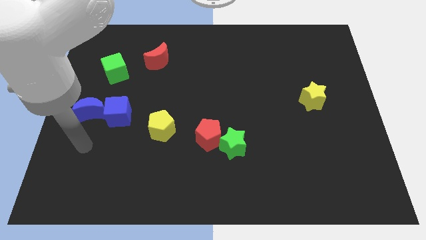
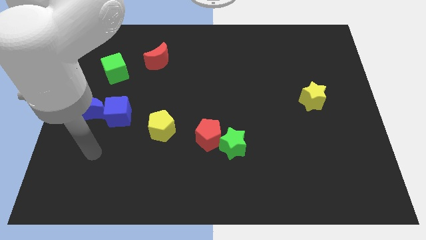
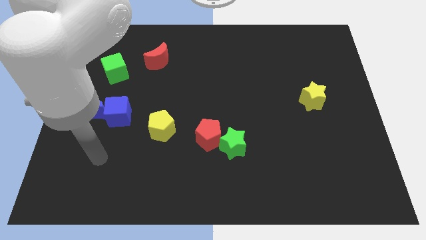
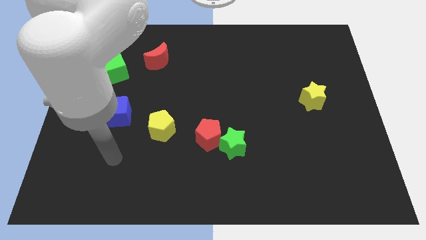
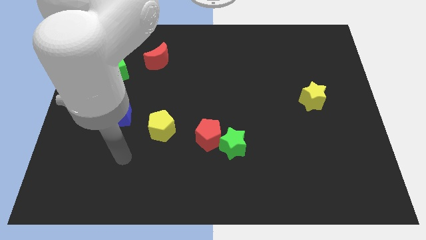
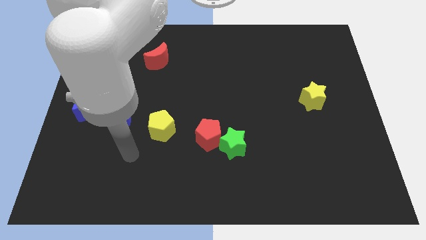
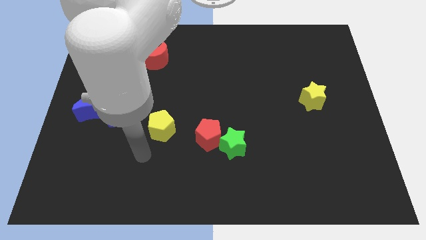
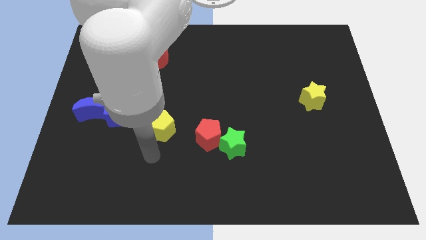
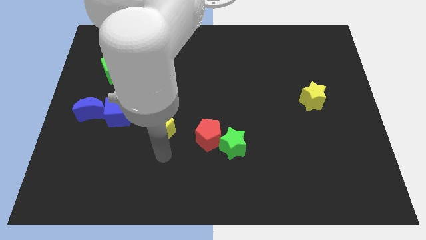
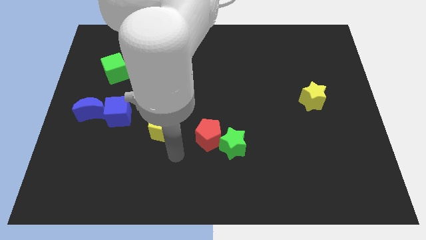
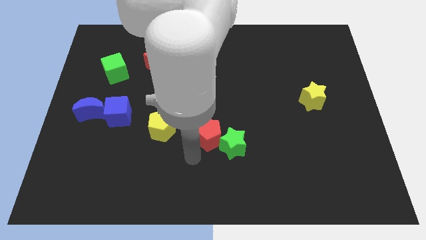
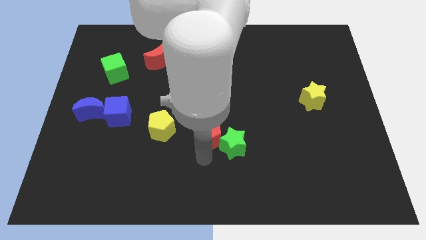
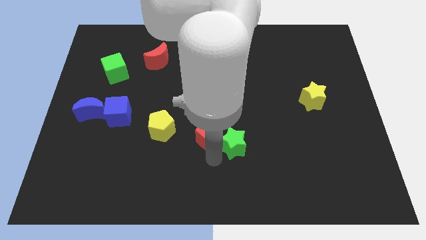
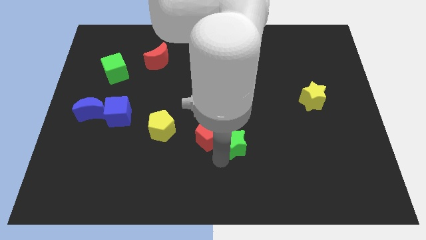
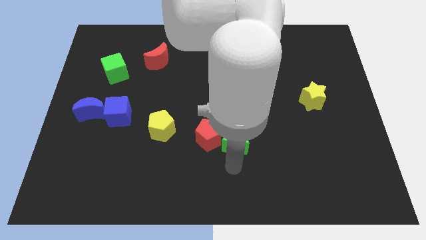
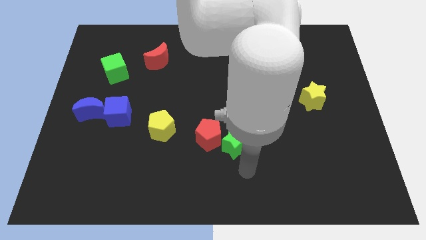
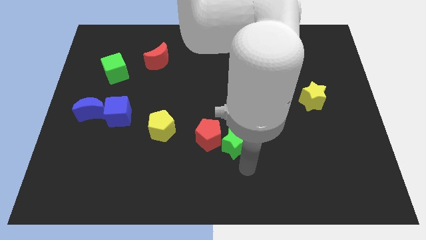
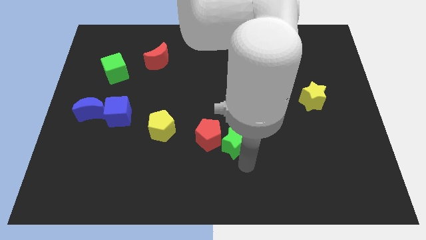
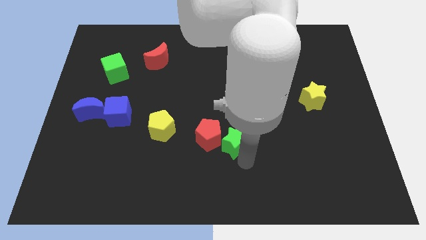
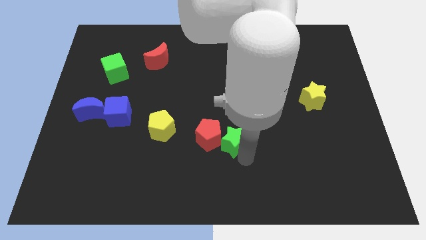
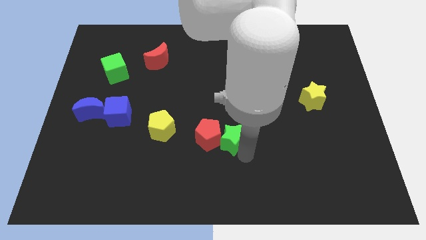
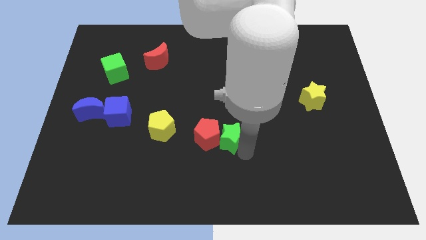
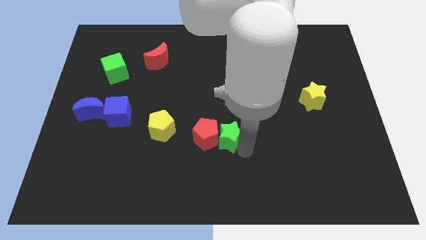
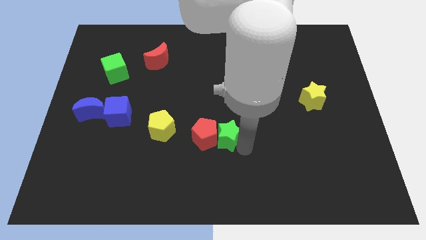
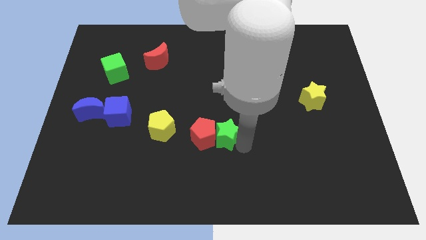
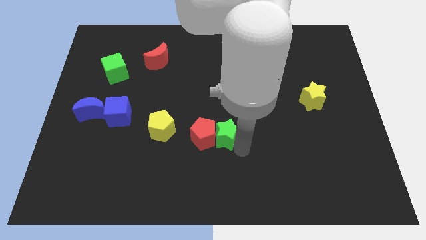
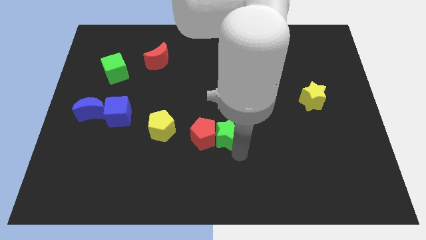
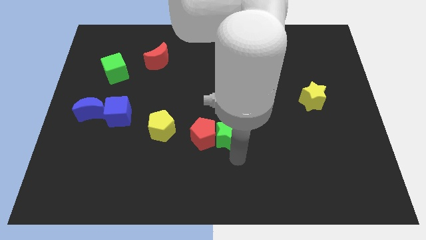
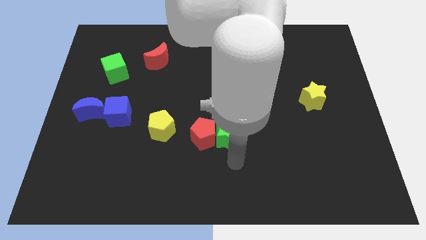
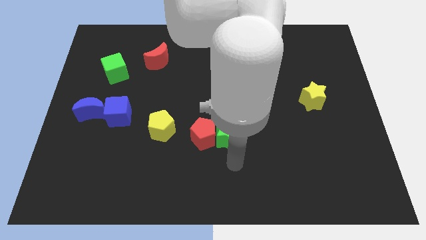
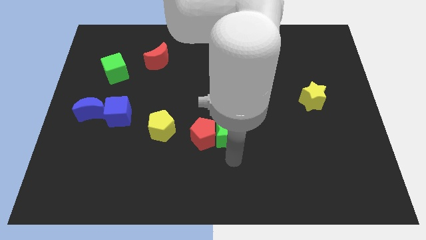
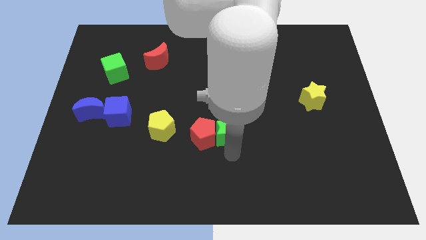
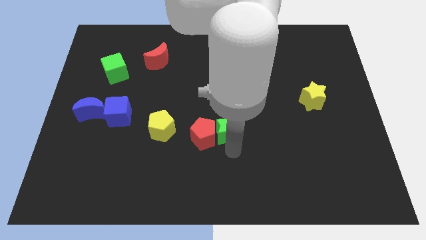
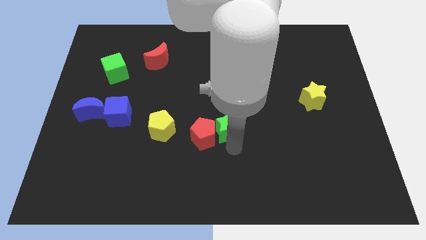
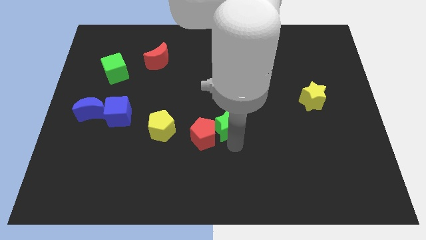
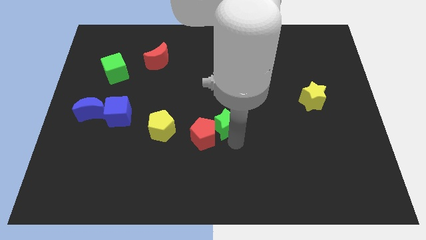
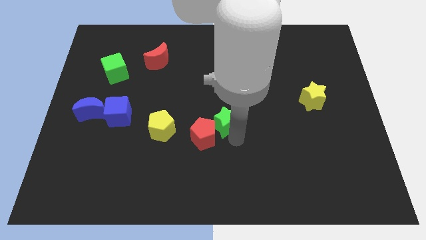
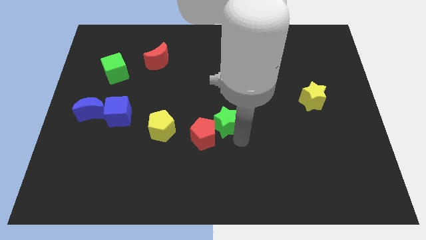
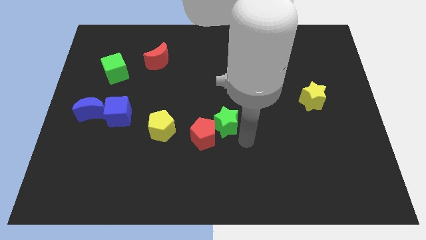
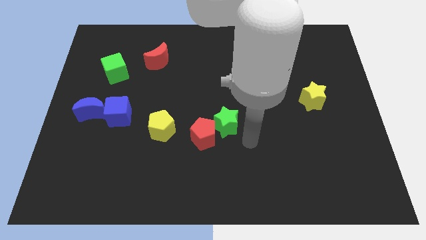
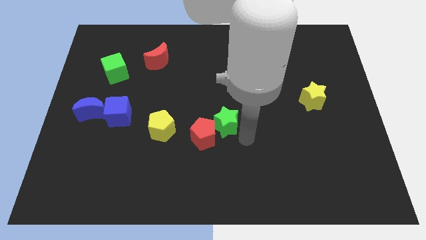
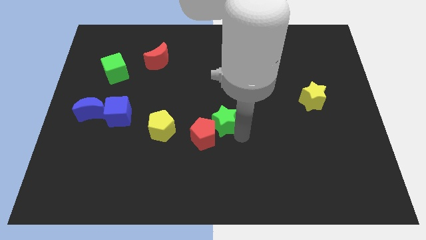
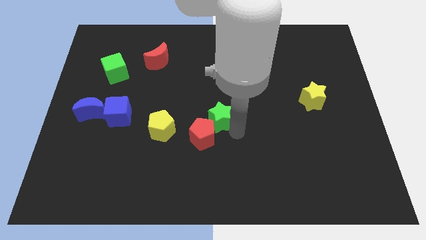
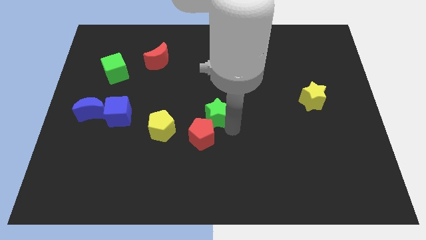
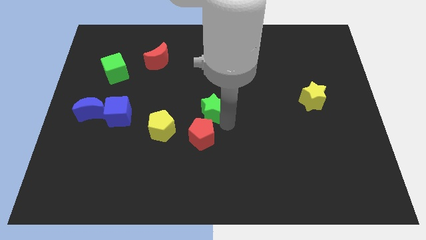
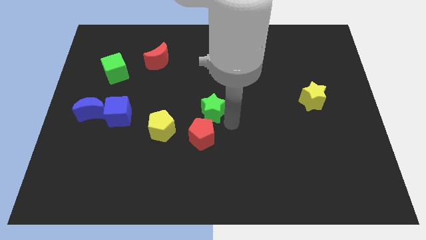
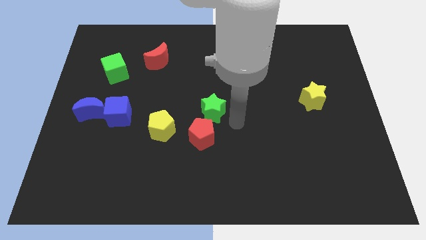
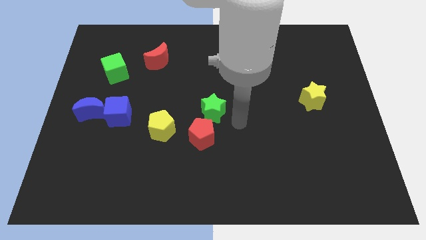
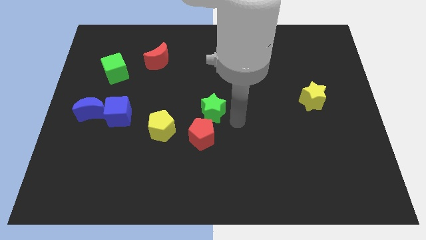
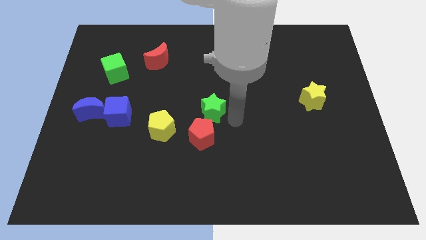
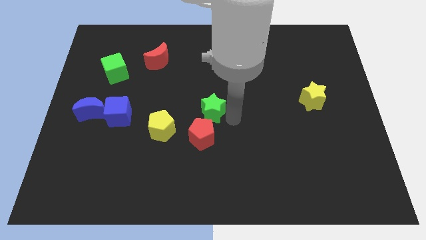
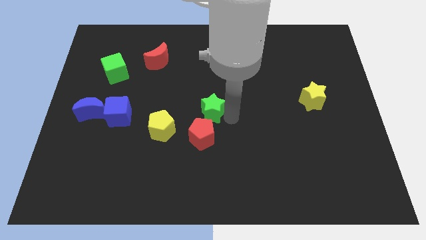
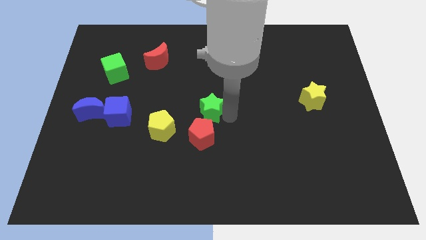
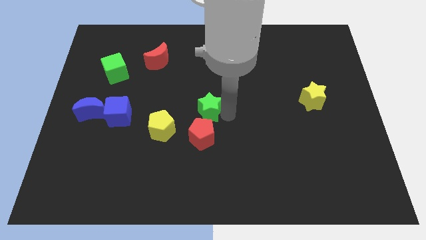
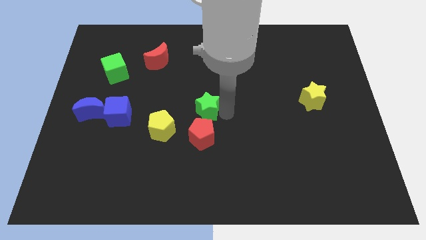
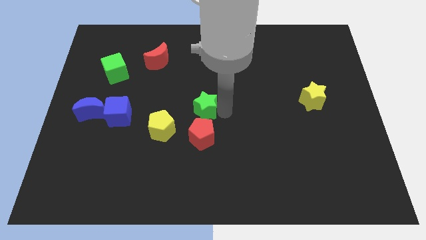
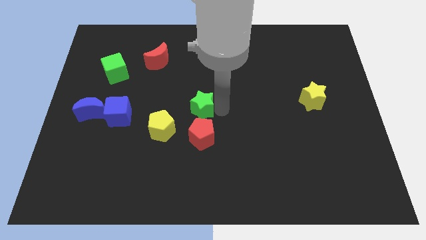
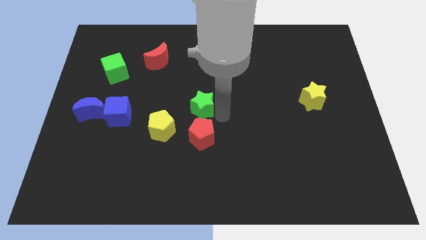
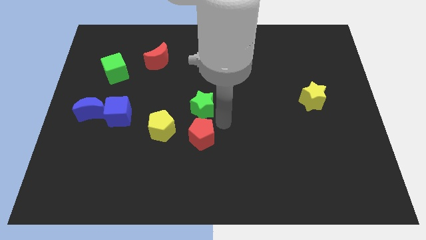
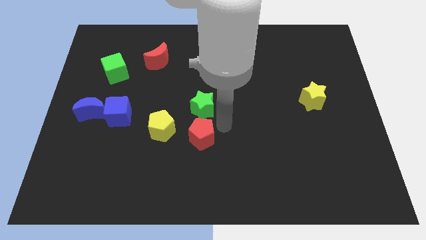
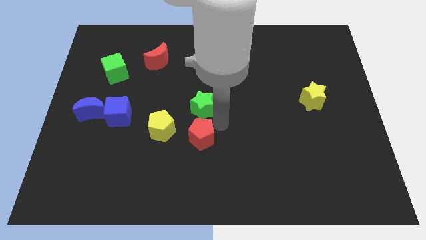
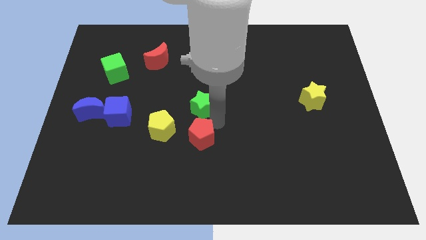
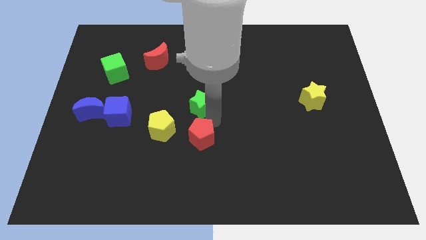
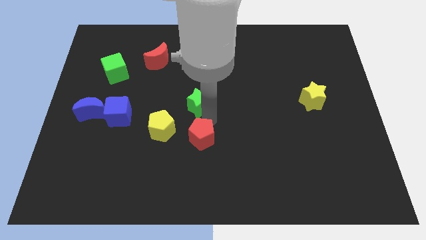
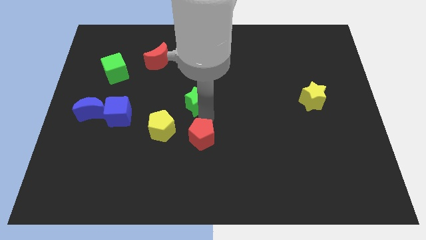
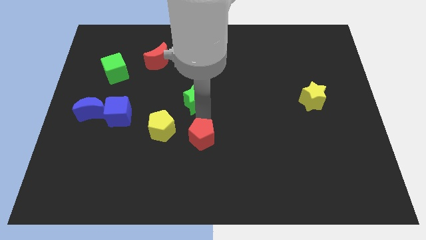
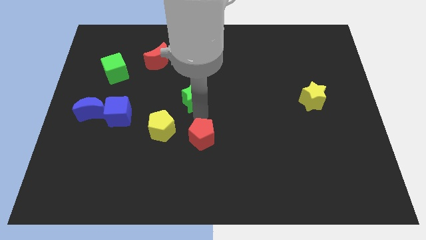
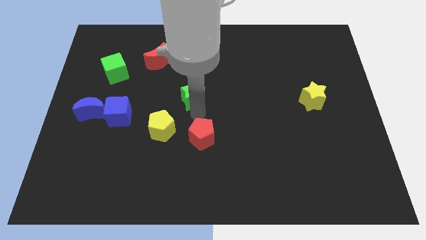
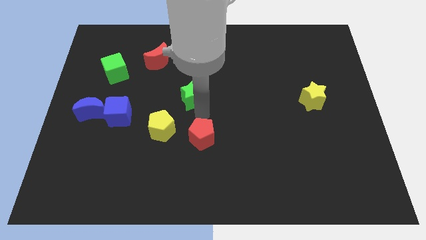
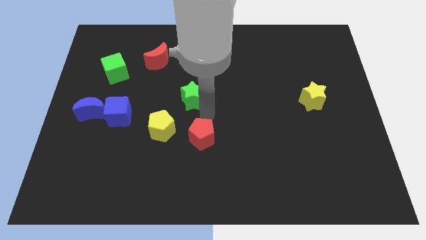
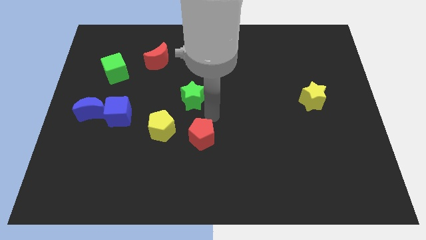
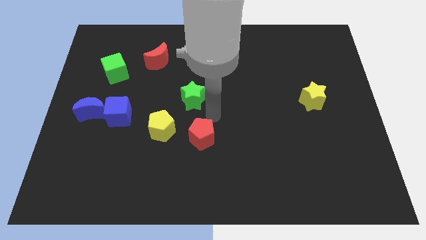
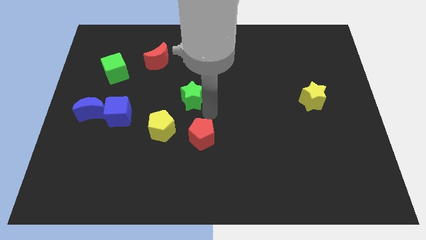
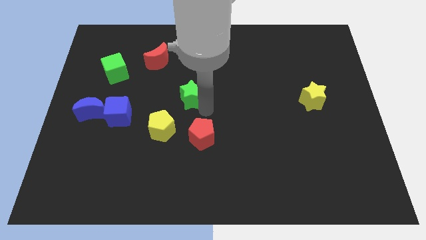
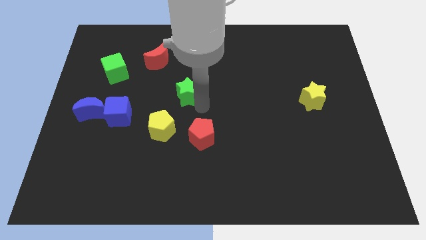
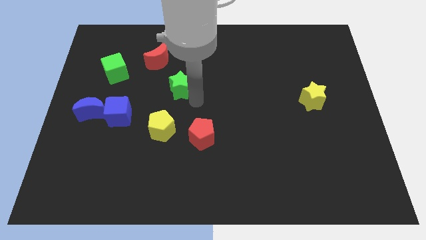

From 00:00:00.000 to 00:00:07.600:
slide the green star upwards and left diagonally

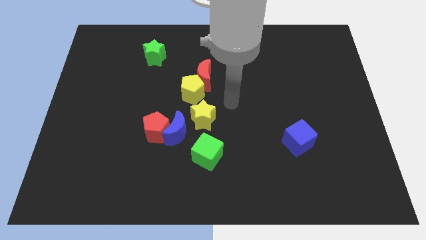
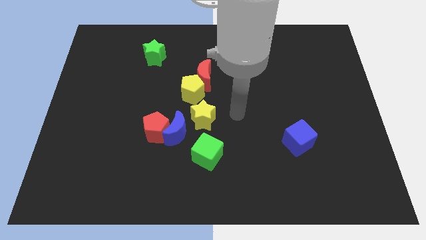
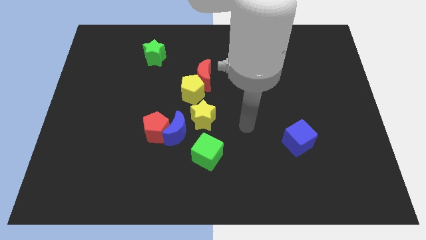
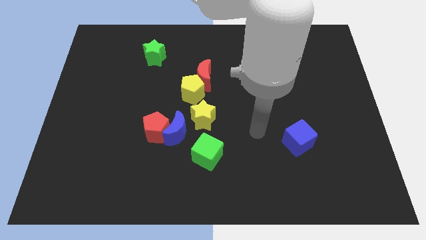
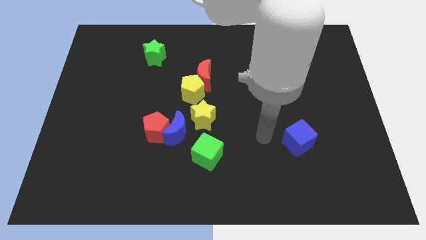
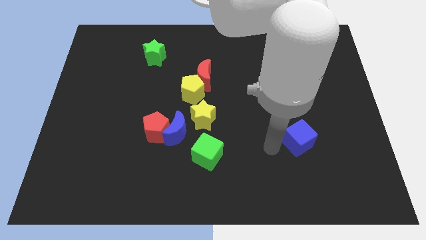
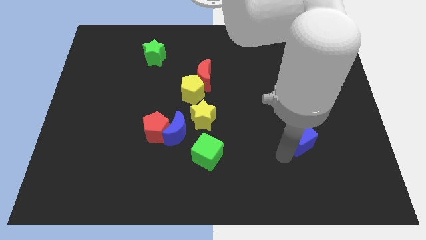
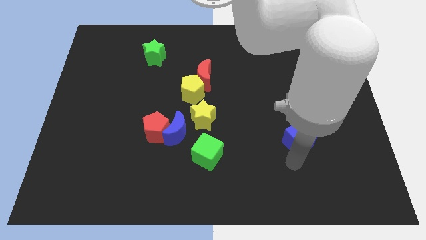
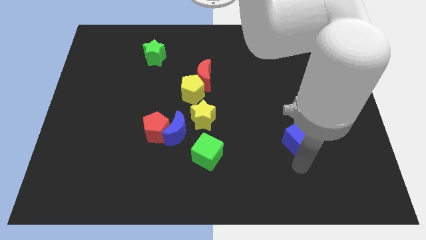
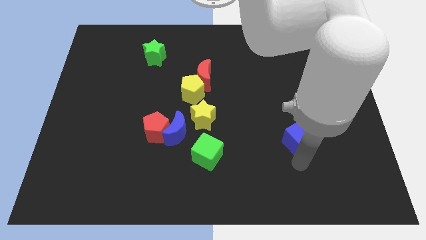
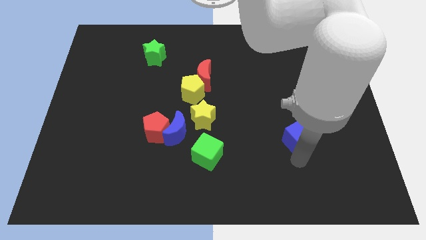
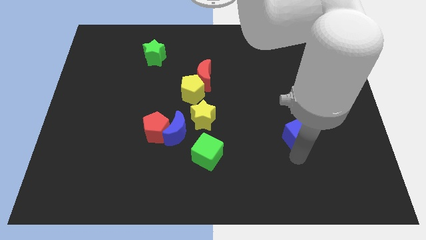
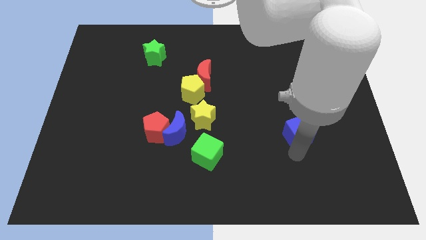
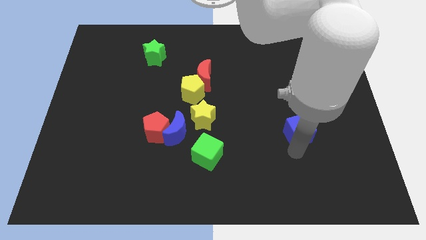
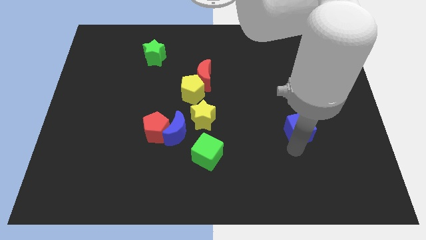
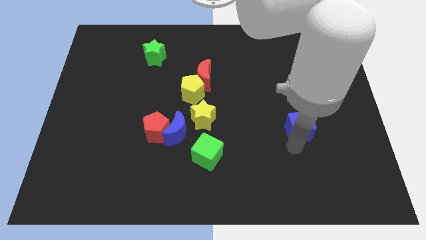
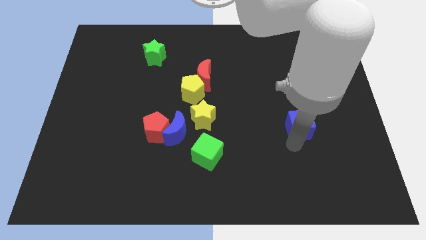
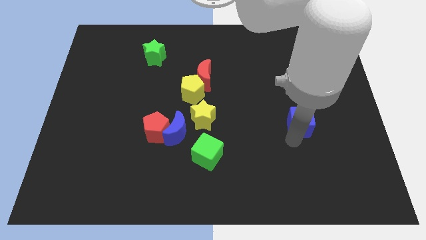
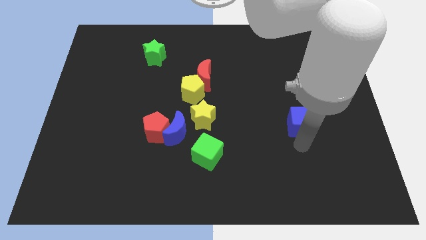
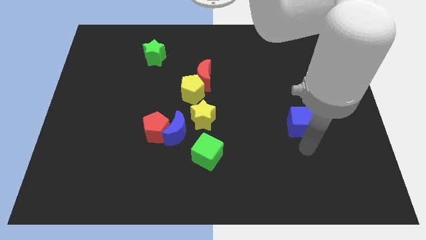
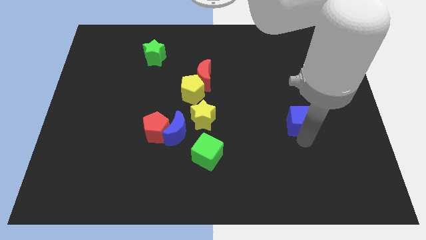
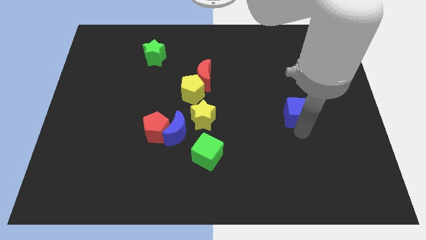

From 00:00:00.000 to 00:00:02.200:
push the blue cube up a bit
